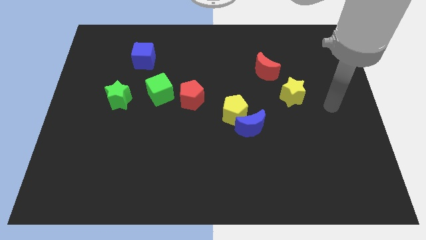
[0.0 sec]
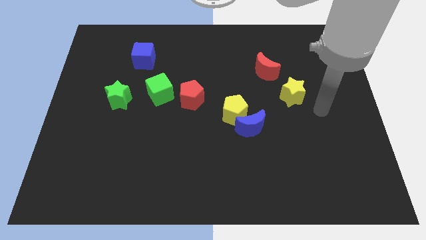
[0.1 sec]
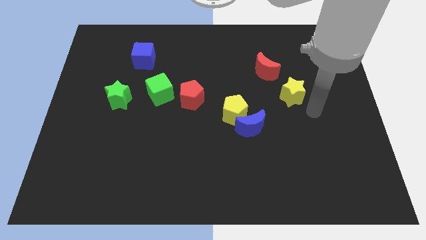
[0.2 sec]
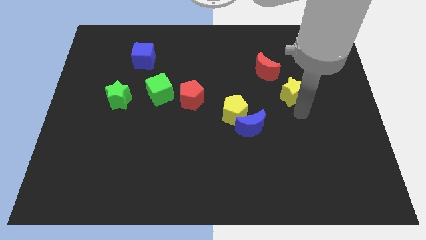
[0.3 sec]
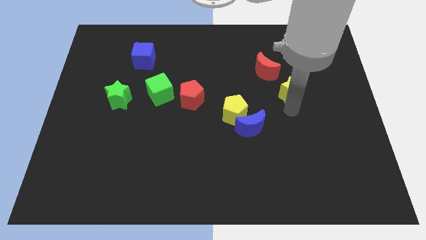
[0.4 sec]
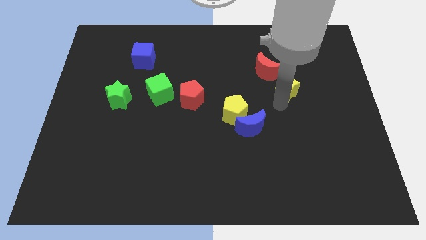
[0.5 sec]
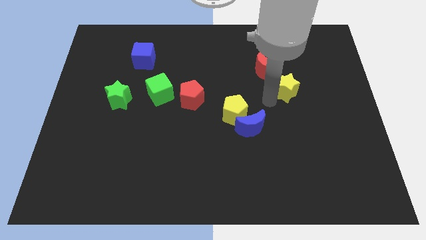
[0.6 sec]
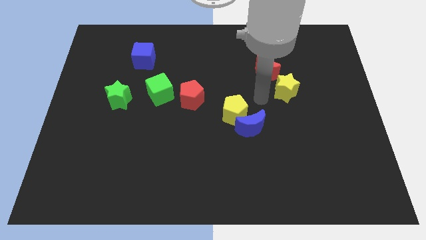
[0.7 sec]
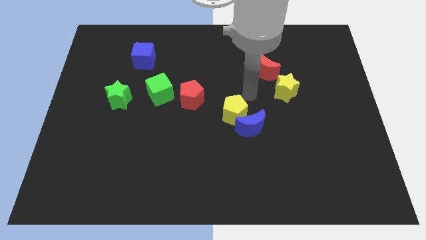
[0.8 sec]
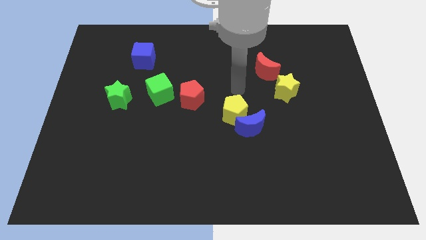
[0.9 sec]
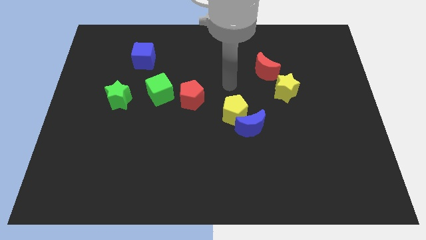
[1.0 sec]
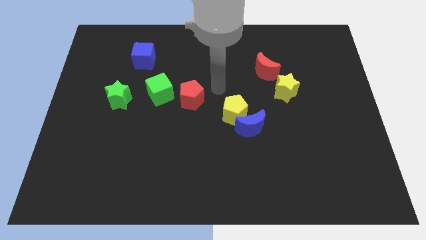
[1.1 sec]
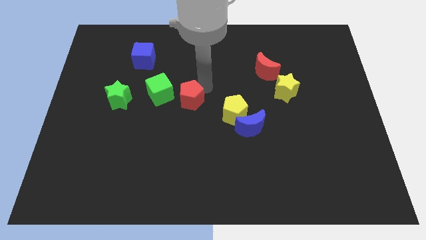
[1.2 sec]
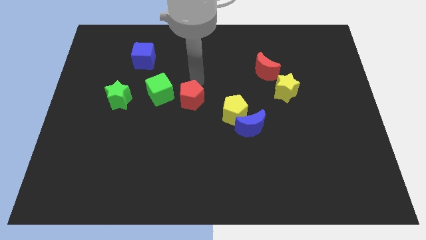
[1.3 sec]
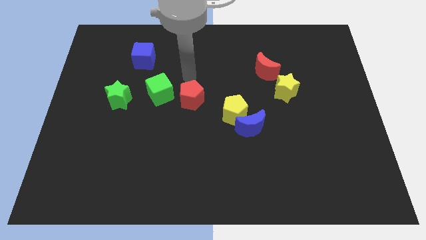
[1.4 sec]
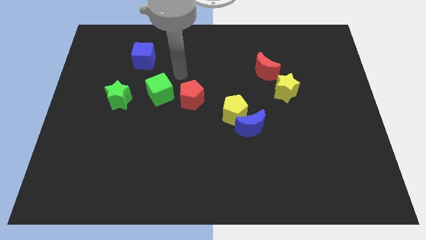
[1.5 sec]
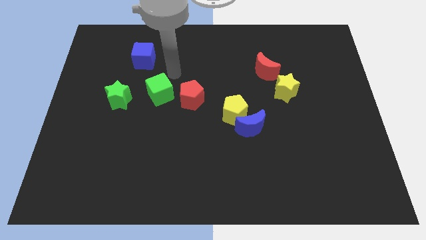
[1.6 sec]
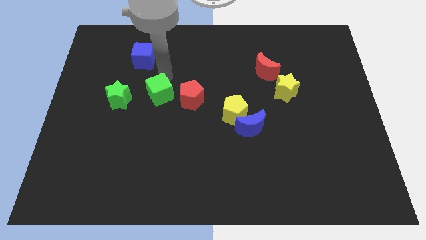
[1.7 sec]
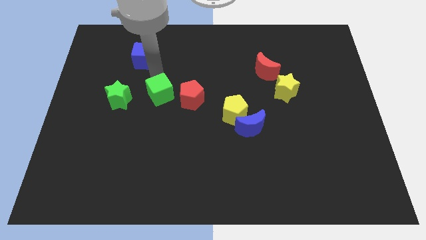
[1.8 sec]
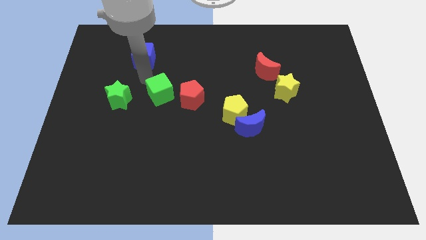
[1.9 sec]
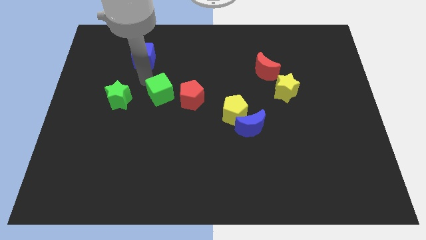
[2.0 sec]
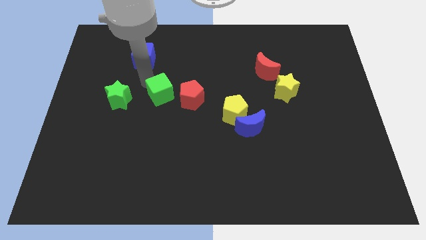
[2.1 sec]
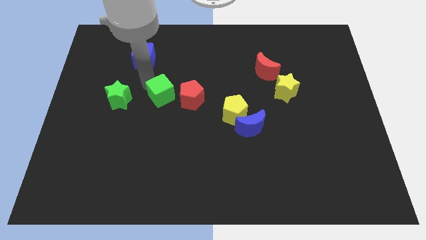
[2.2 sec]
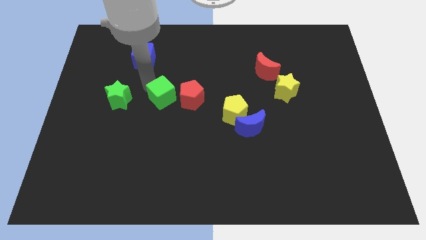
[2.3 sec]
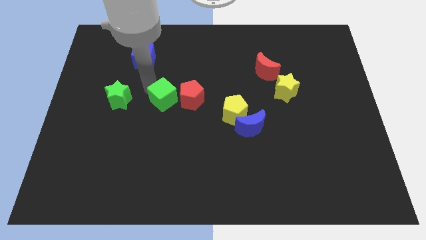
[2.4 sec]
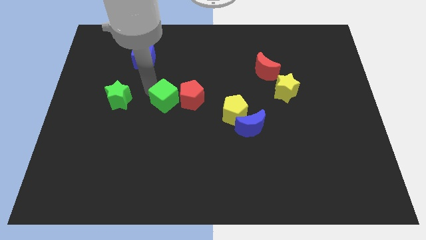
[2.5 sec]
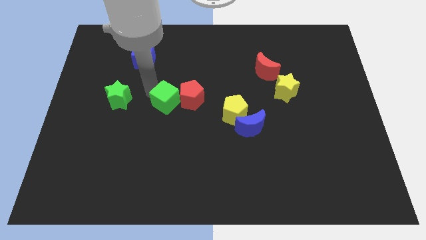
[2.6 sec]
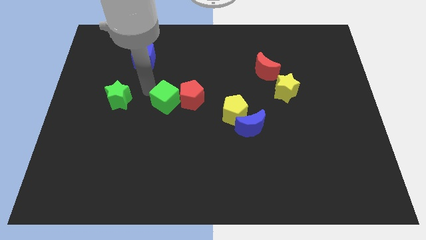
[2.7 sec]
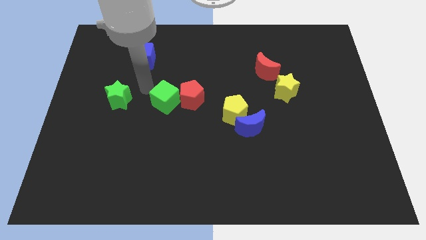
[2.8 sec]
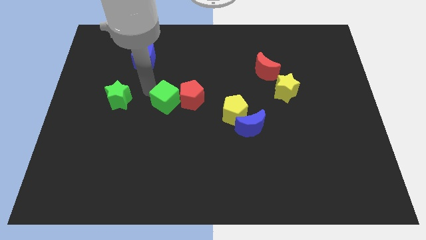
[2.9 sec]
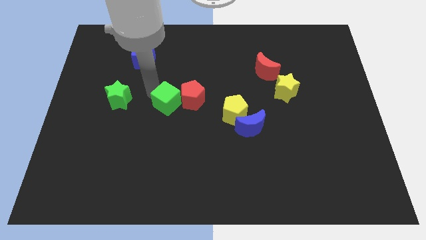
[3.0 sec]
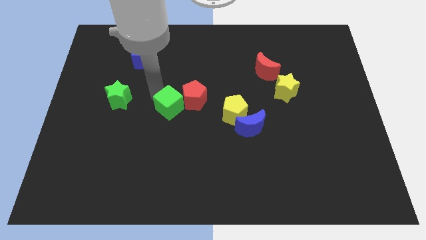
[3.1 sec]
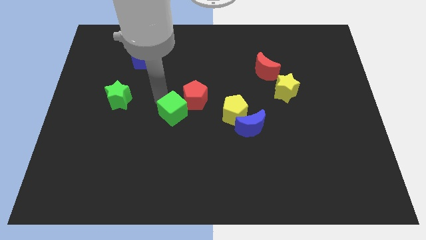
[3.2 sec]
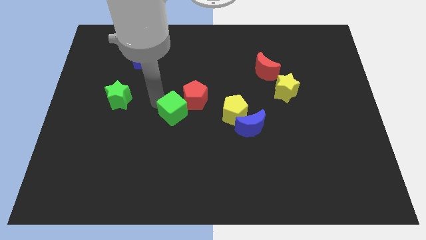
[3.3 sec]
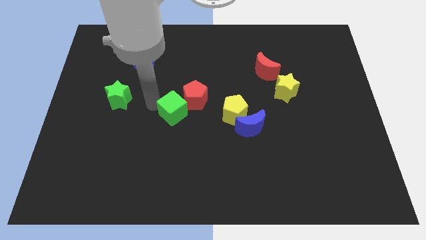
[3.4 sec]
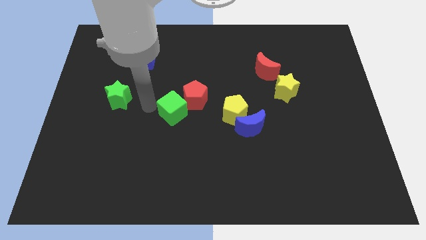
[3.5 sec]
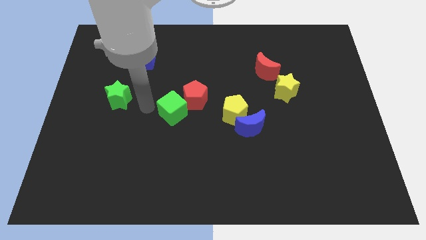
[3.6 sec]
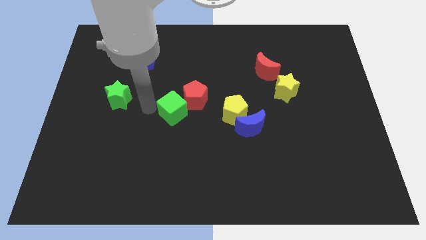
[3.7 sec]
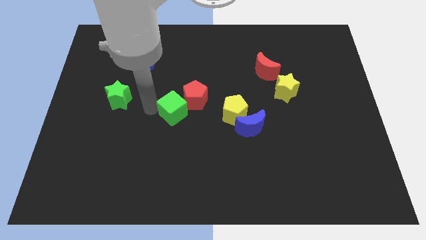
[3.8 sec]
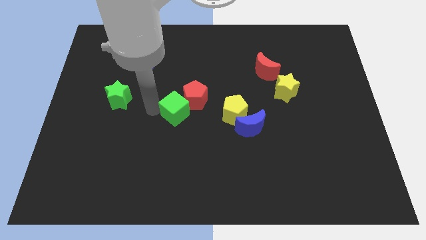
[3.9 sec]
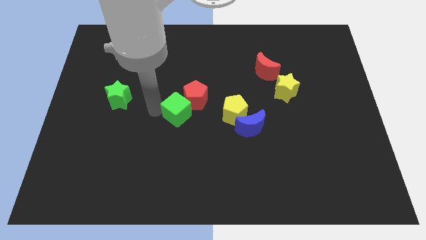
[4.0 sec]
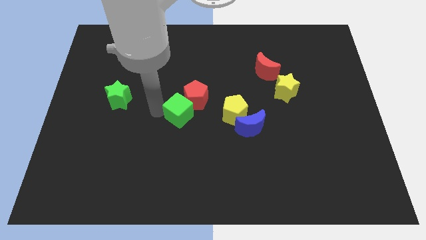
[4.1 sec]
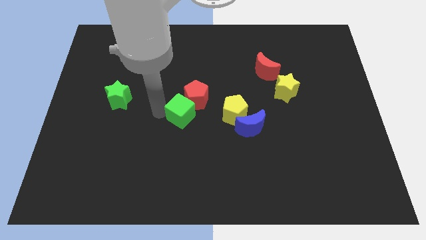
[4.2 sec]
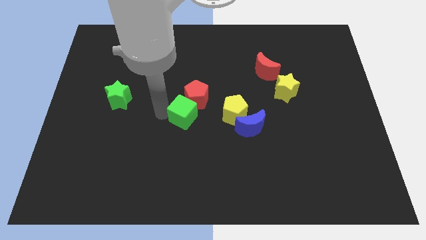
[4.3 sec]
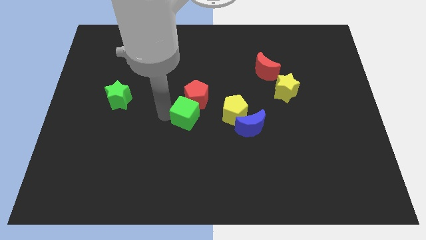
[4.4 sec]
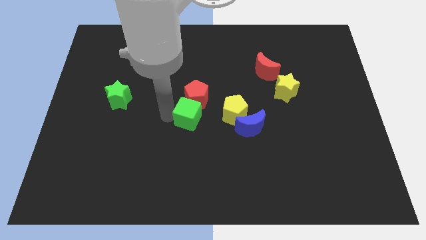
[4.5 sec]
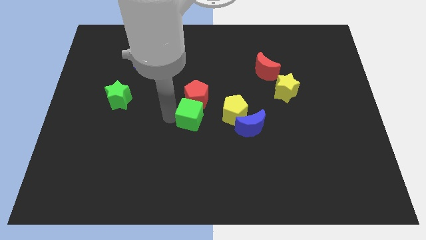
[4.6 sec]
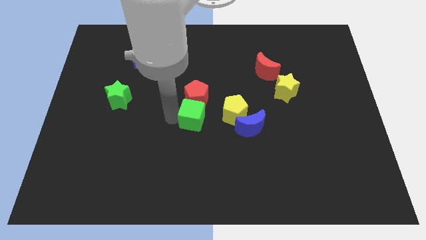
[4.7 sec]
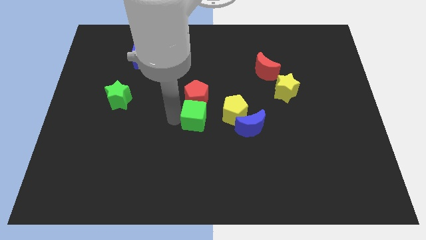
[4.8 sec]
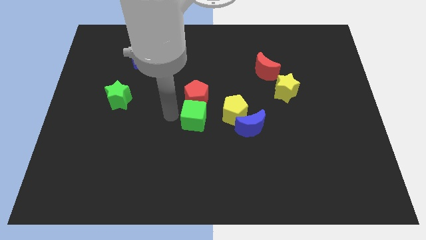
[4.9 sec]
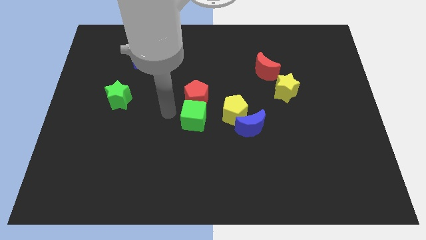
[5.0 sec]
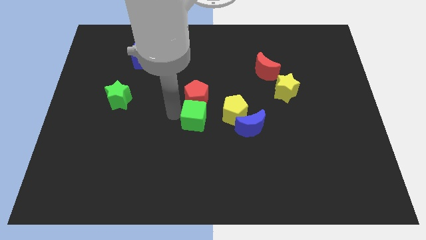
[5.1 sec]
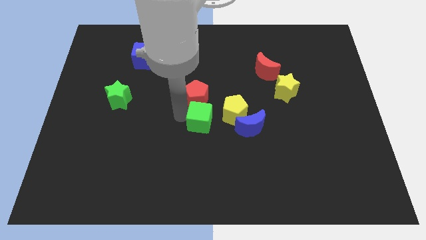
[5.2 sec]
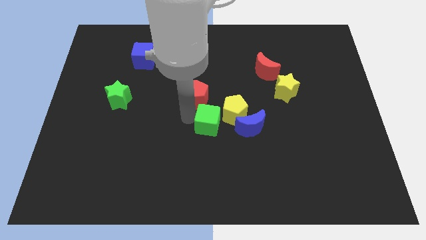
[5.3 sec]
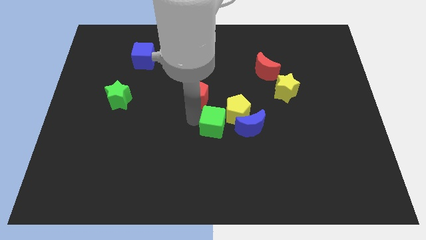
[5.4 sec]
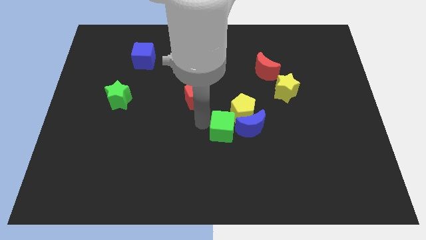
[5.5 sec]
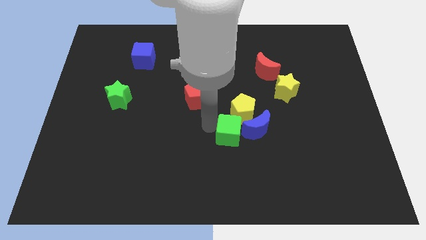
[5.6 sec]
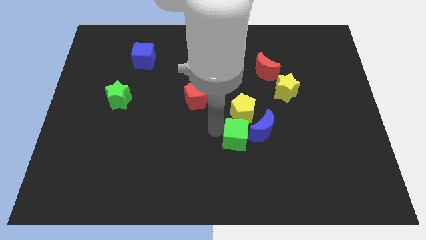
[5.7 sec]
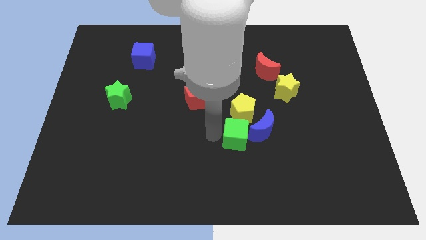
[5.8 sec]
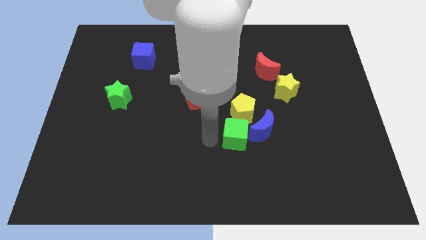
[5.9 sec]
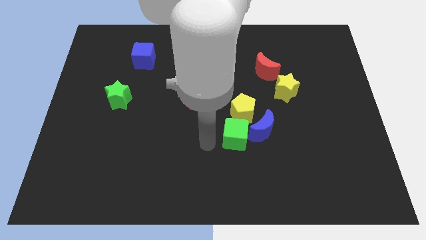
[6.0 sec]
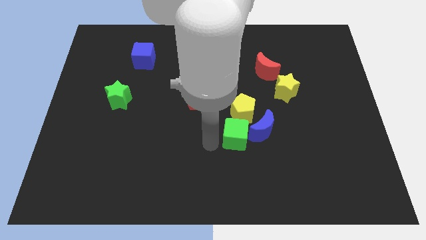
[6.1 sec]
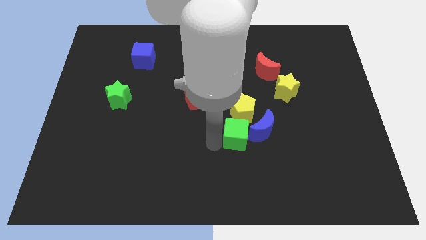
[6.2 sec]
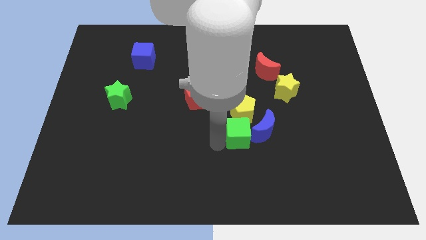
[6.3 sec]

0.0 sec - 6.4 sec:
put the green cube next to the blue moon

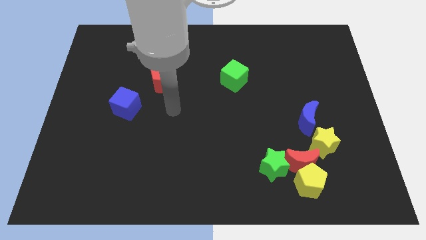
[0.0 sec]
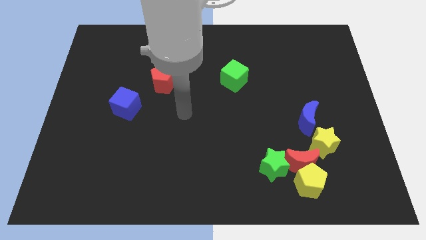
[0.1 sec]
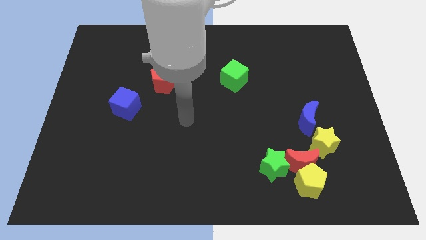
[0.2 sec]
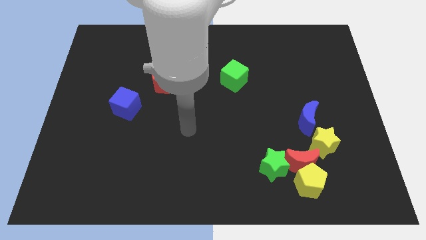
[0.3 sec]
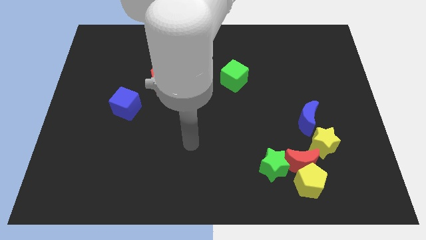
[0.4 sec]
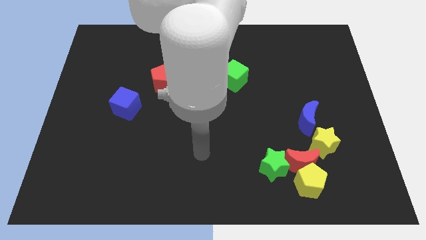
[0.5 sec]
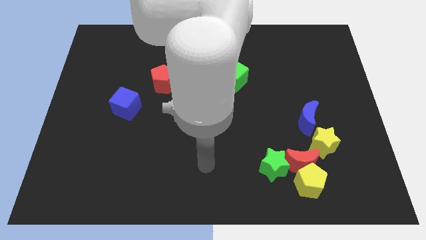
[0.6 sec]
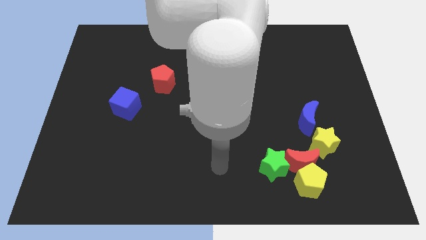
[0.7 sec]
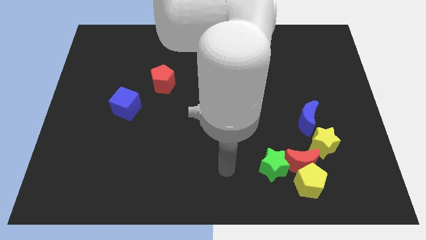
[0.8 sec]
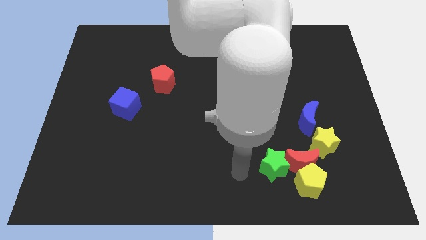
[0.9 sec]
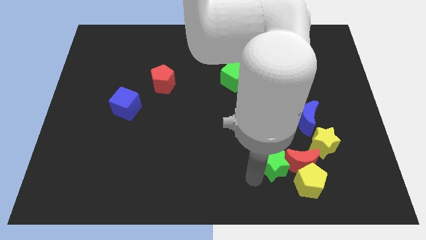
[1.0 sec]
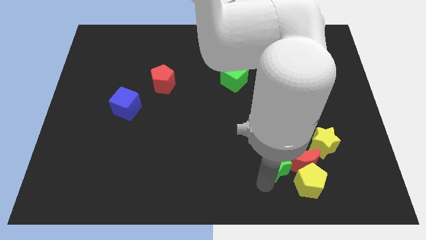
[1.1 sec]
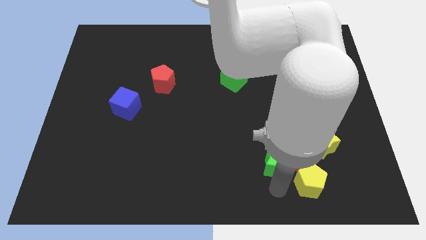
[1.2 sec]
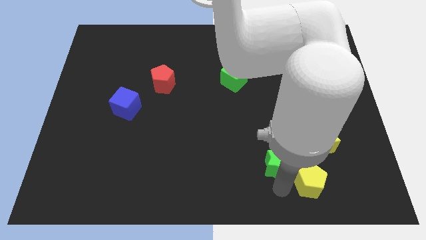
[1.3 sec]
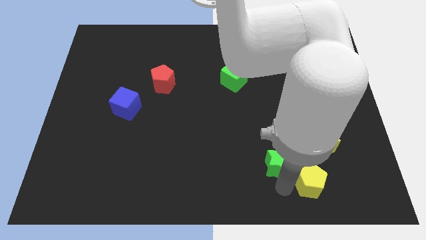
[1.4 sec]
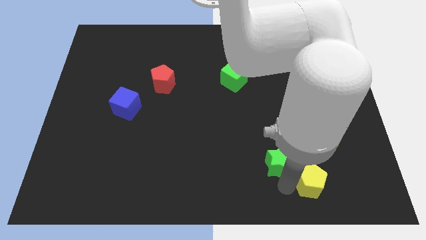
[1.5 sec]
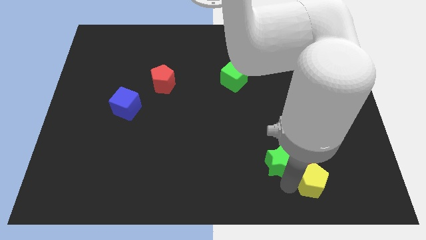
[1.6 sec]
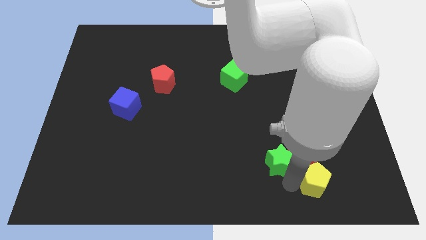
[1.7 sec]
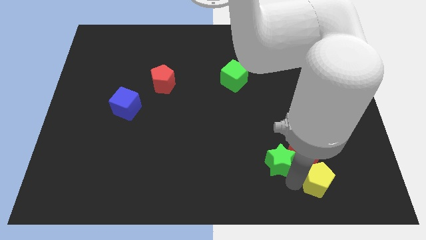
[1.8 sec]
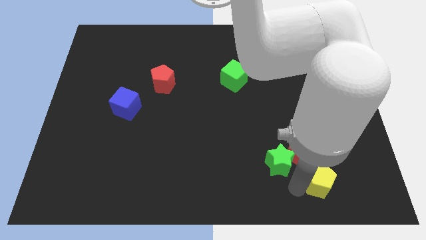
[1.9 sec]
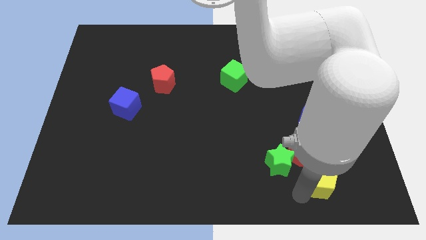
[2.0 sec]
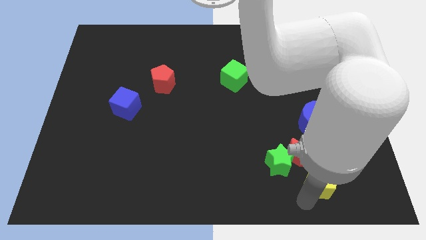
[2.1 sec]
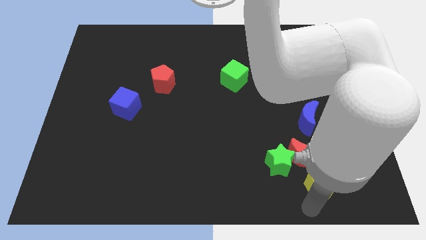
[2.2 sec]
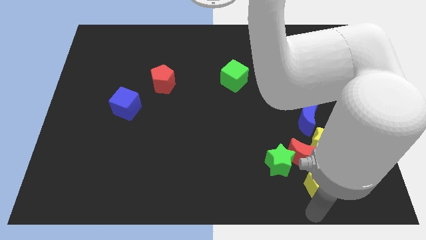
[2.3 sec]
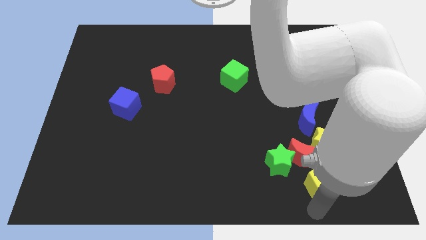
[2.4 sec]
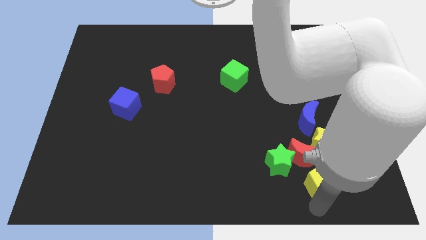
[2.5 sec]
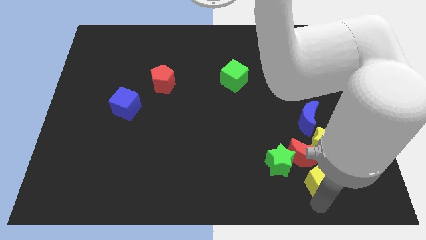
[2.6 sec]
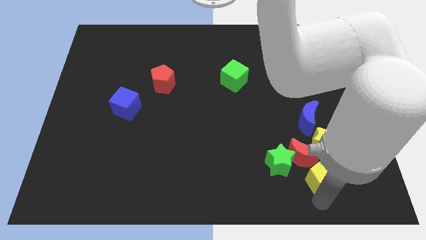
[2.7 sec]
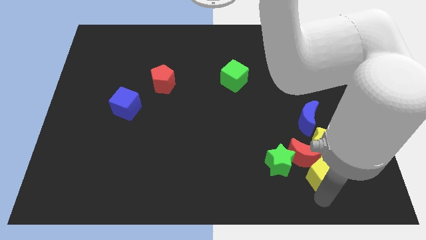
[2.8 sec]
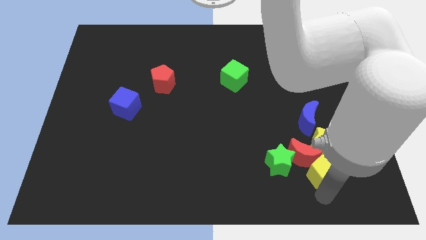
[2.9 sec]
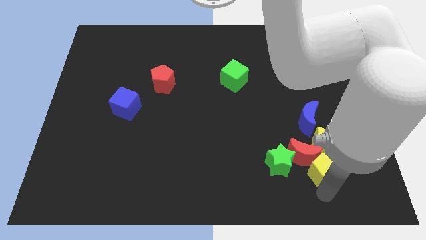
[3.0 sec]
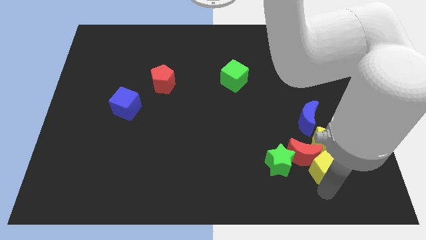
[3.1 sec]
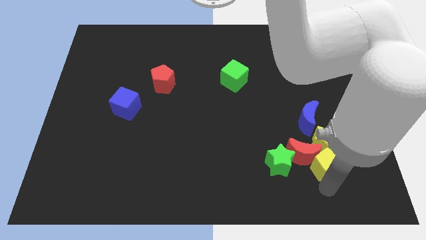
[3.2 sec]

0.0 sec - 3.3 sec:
move the yellow pentagon next to the yellow star
